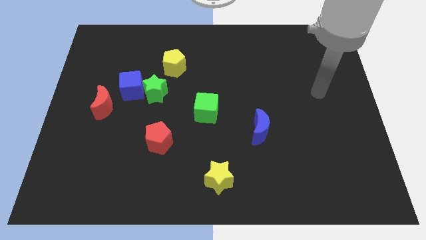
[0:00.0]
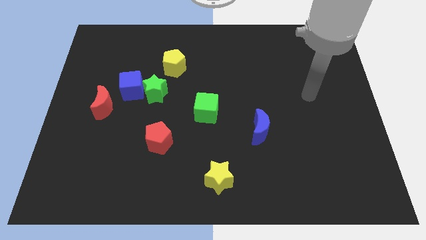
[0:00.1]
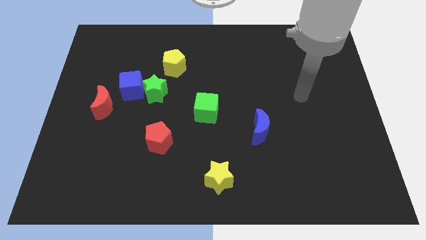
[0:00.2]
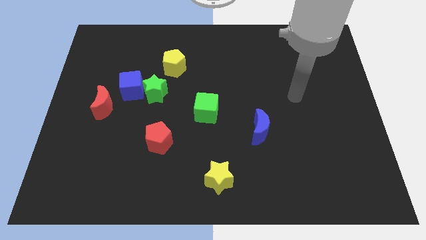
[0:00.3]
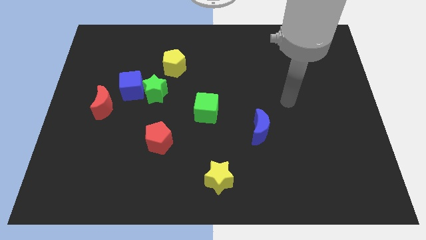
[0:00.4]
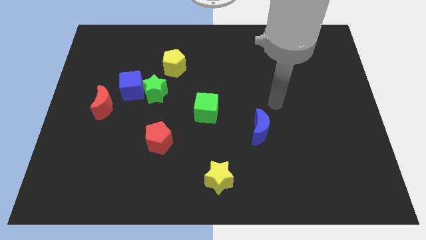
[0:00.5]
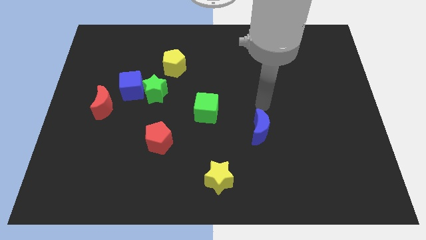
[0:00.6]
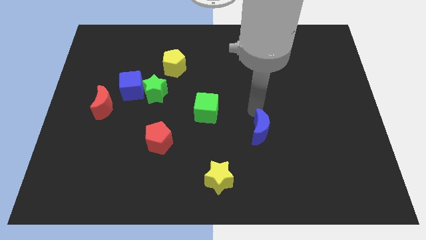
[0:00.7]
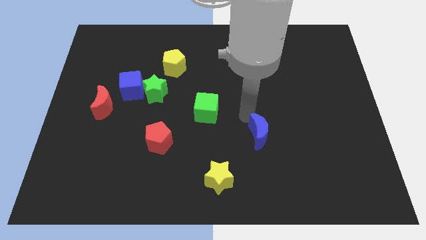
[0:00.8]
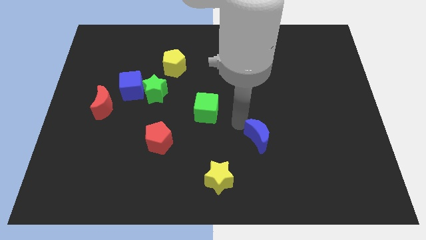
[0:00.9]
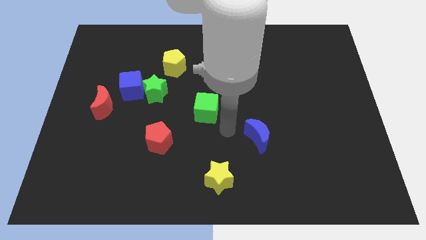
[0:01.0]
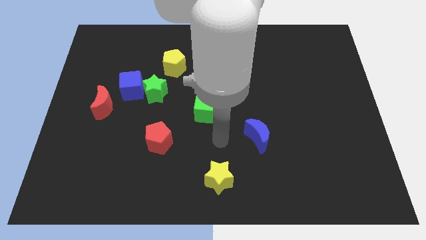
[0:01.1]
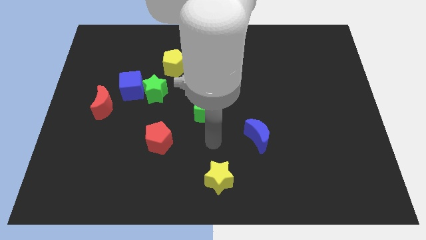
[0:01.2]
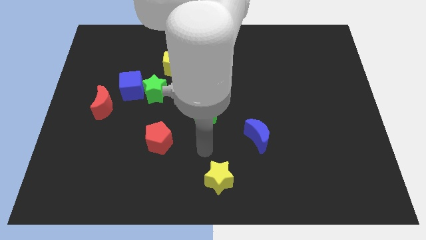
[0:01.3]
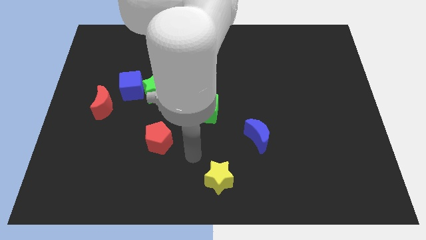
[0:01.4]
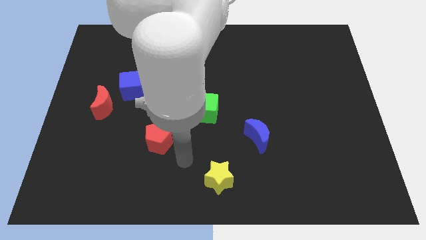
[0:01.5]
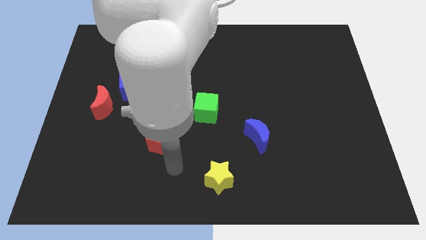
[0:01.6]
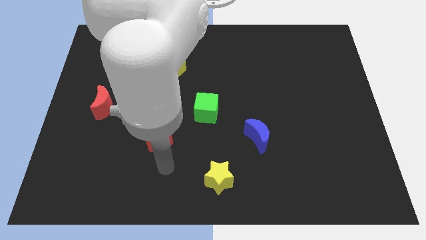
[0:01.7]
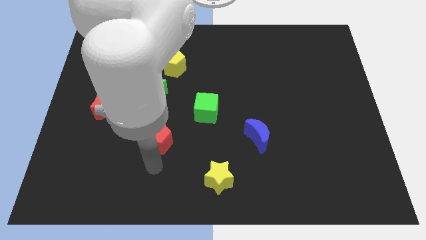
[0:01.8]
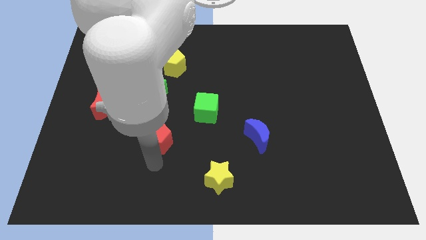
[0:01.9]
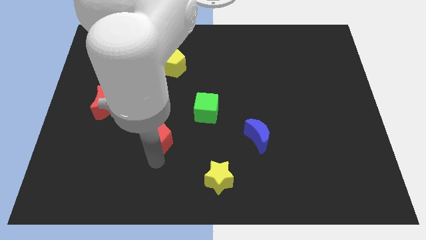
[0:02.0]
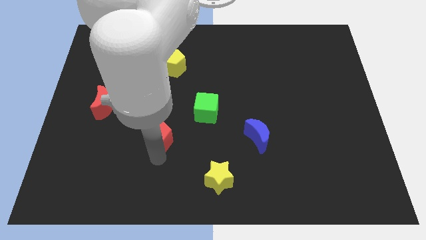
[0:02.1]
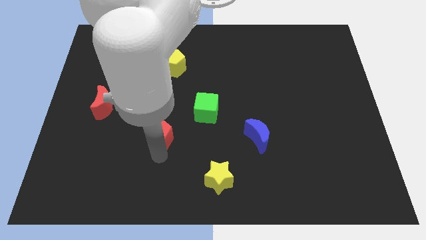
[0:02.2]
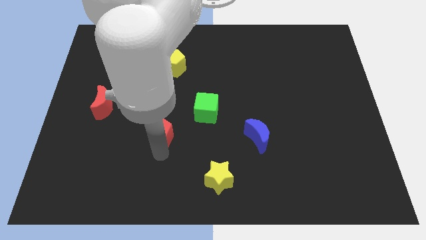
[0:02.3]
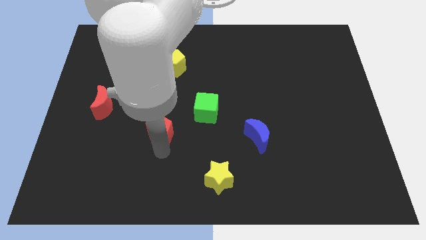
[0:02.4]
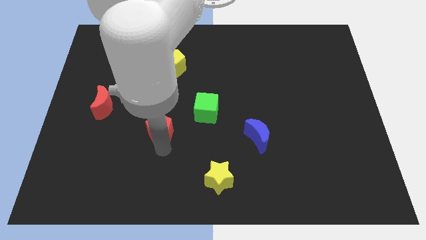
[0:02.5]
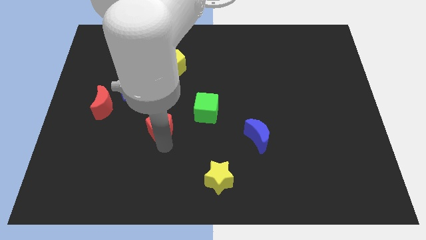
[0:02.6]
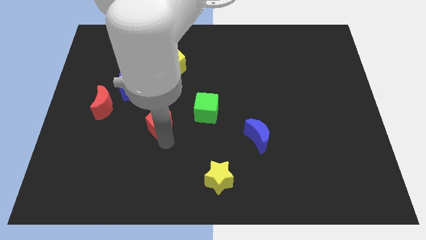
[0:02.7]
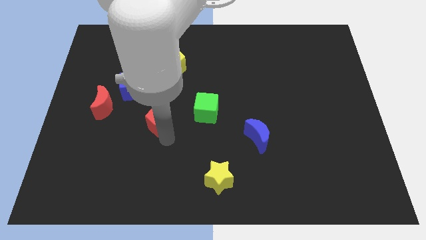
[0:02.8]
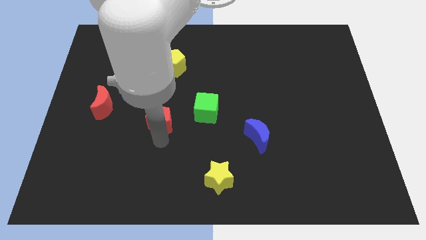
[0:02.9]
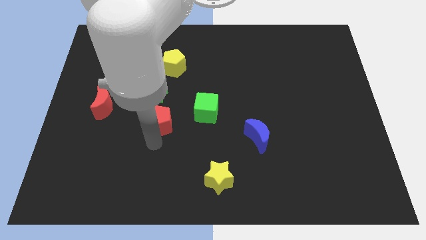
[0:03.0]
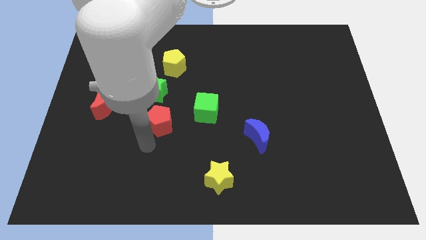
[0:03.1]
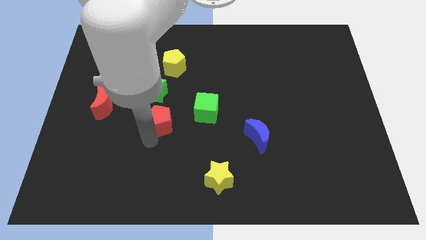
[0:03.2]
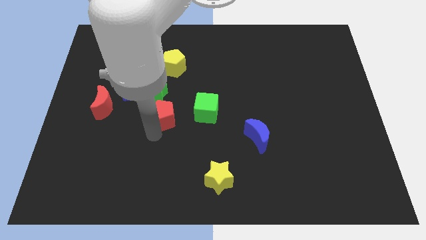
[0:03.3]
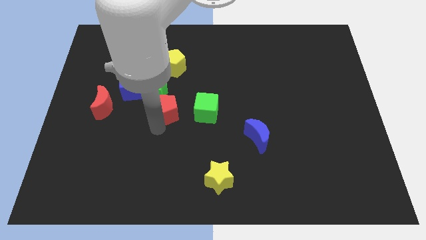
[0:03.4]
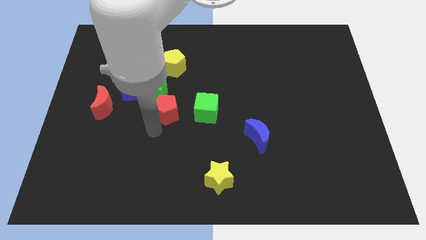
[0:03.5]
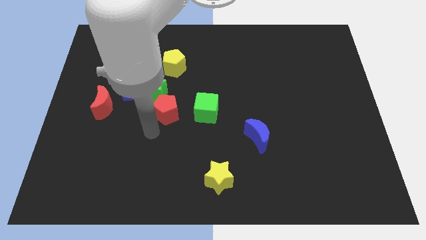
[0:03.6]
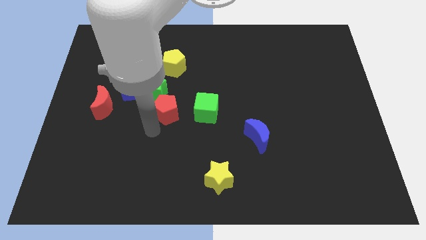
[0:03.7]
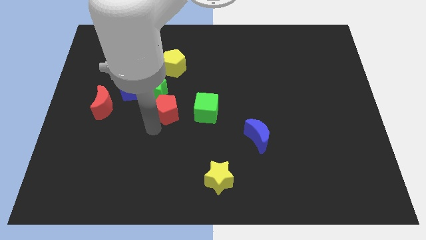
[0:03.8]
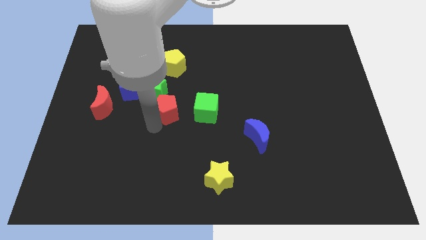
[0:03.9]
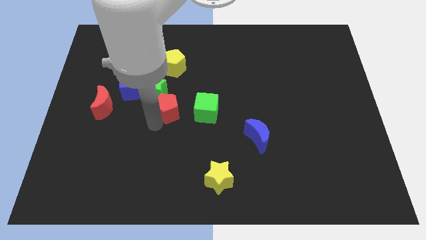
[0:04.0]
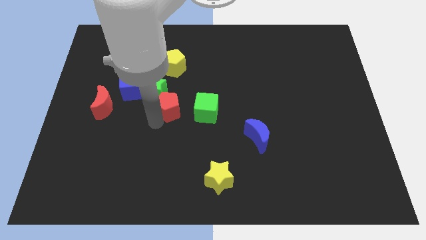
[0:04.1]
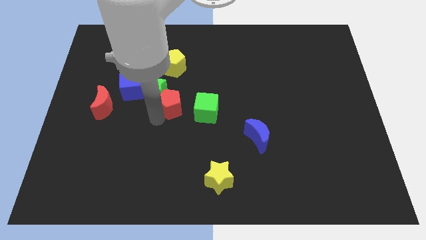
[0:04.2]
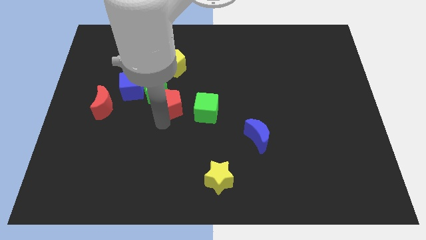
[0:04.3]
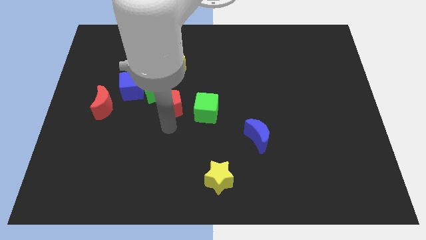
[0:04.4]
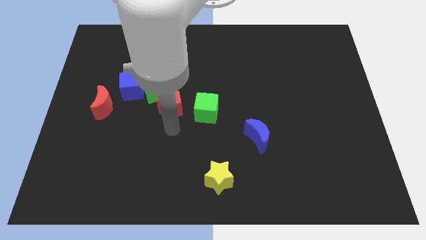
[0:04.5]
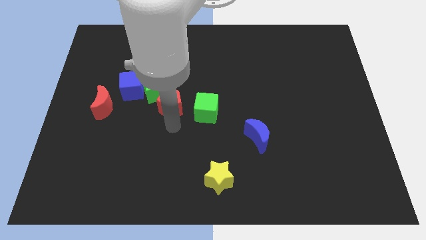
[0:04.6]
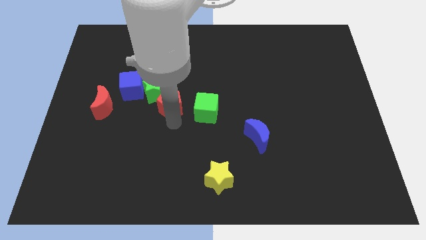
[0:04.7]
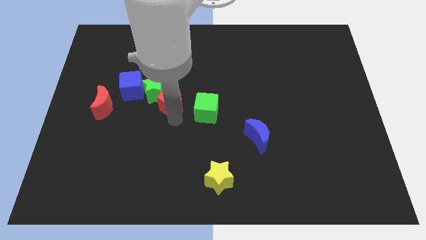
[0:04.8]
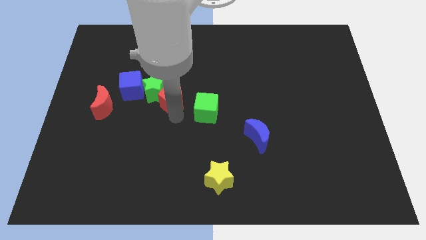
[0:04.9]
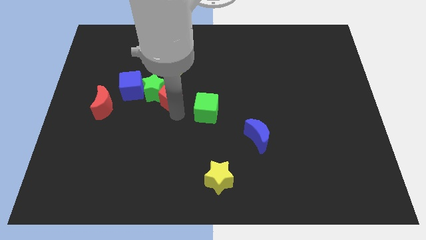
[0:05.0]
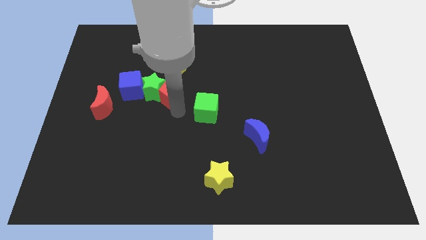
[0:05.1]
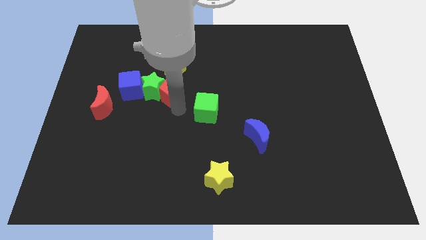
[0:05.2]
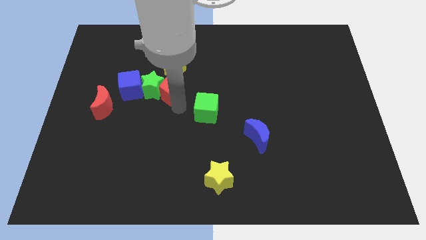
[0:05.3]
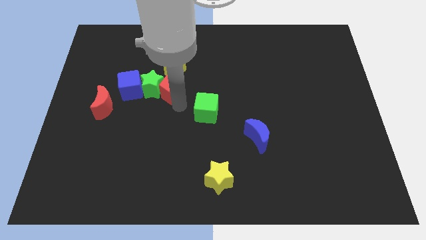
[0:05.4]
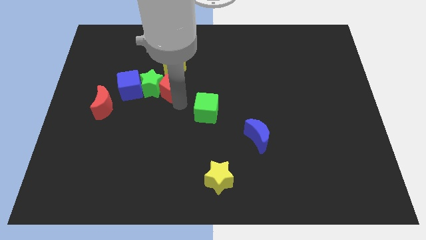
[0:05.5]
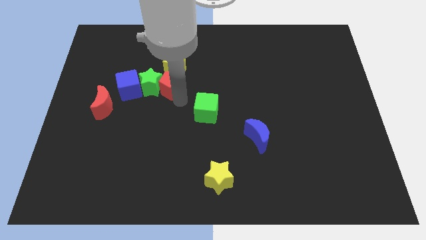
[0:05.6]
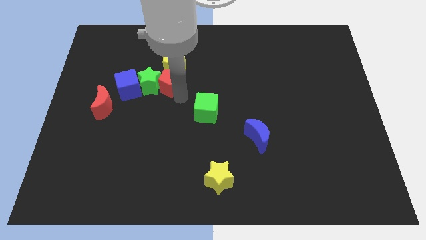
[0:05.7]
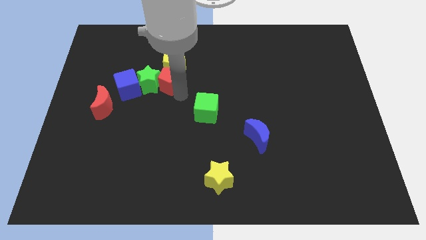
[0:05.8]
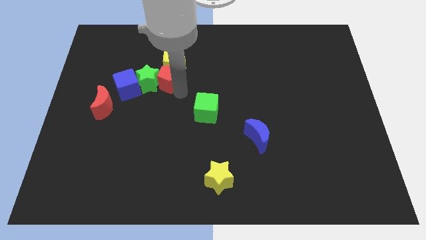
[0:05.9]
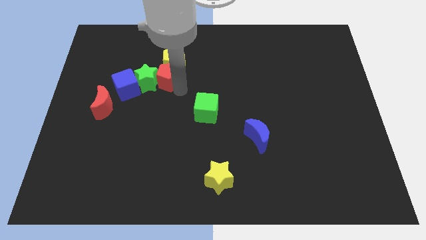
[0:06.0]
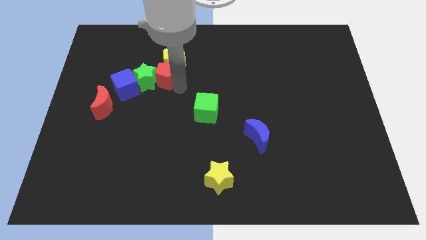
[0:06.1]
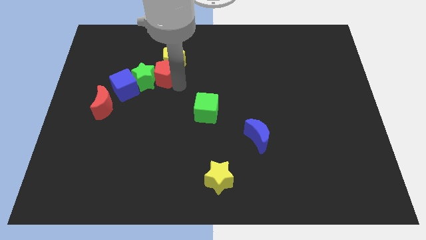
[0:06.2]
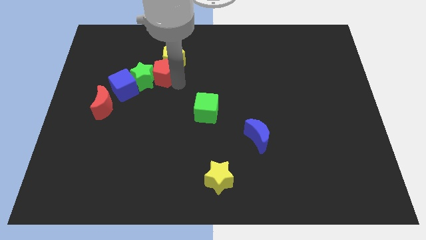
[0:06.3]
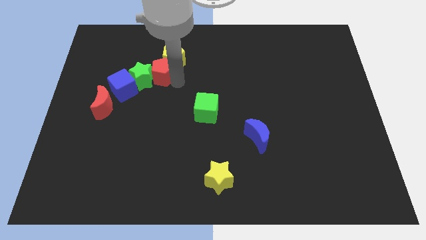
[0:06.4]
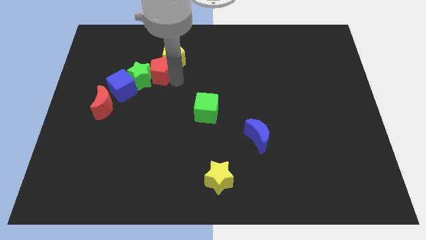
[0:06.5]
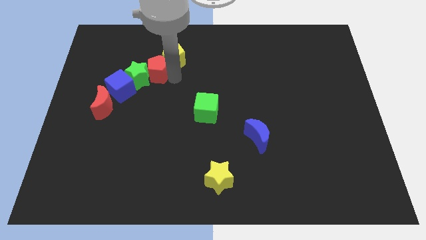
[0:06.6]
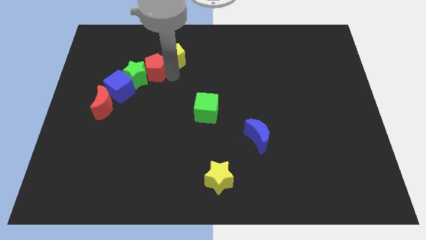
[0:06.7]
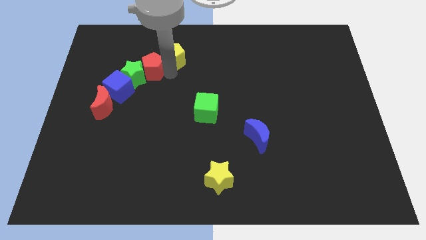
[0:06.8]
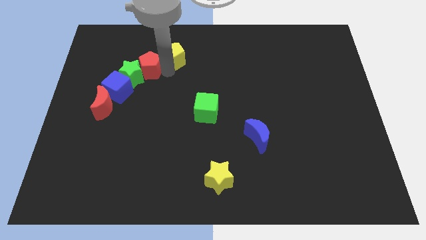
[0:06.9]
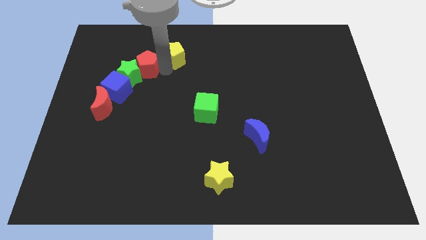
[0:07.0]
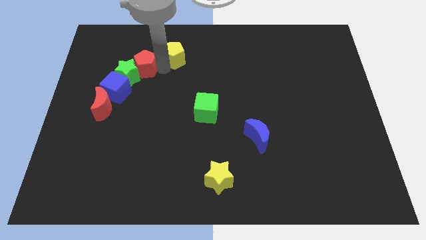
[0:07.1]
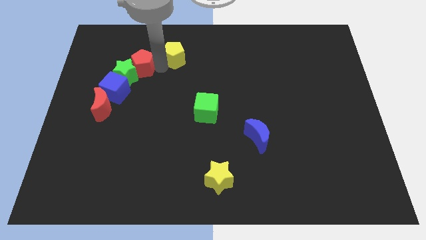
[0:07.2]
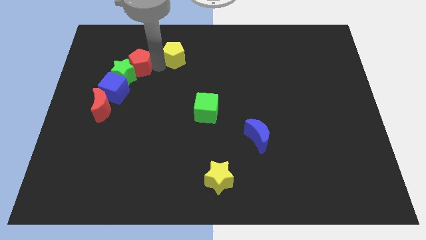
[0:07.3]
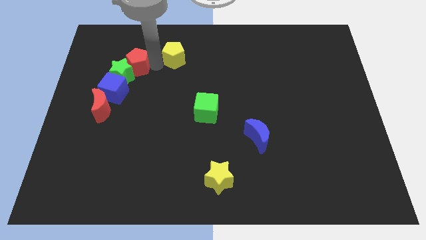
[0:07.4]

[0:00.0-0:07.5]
put the red pentagon to the top side of the blue cube
